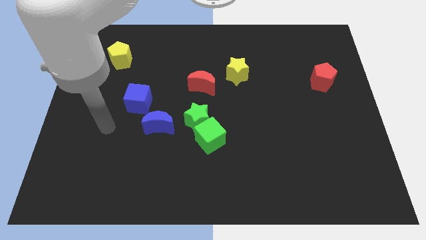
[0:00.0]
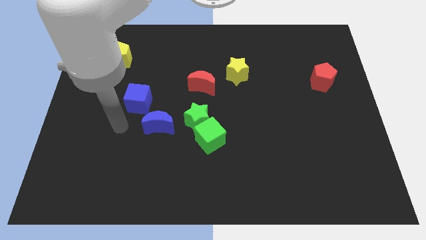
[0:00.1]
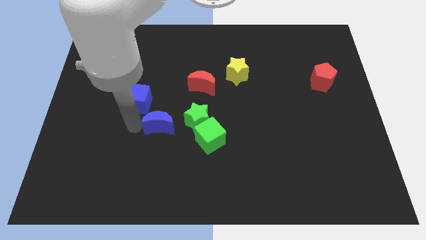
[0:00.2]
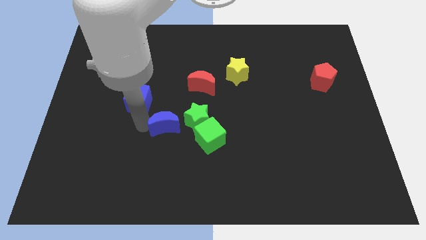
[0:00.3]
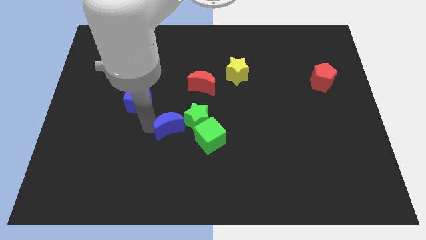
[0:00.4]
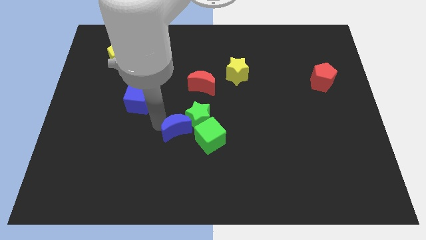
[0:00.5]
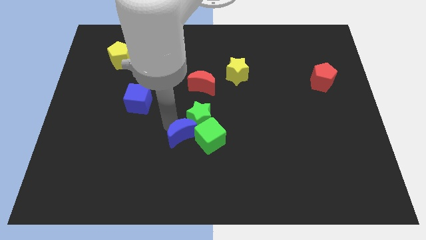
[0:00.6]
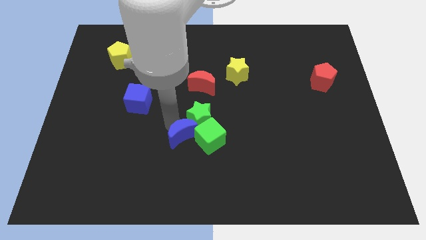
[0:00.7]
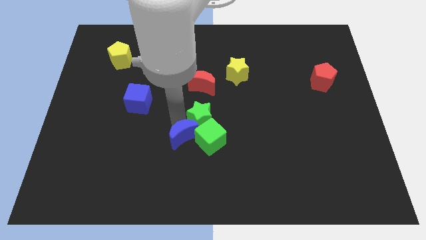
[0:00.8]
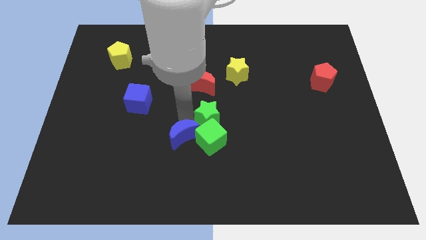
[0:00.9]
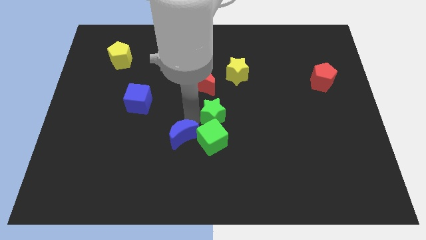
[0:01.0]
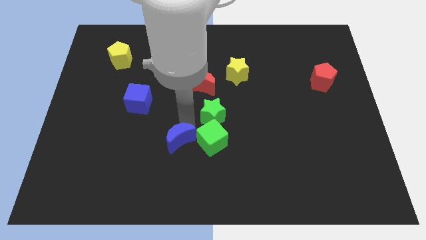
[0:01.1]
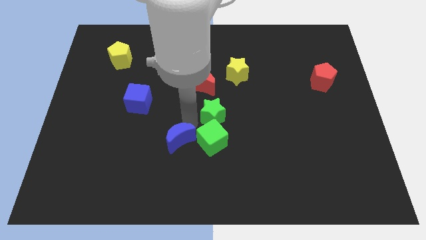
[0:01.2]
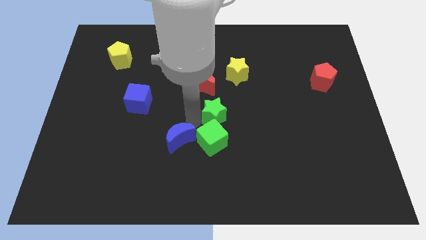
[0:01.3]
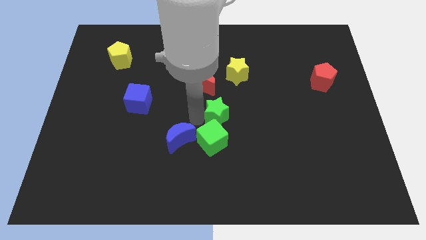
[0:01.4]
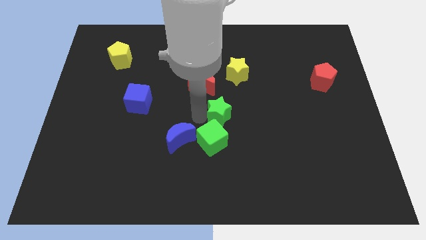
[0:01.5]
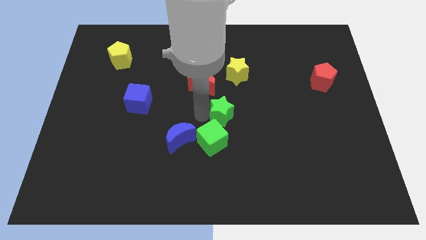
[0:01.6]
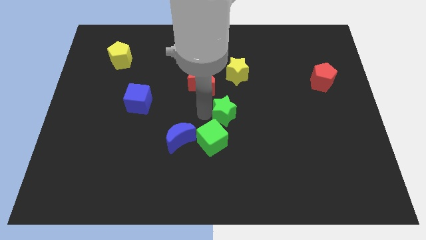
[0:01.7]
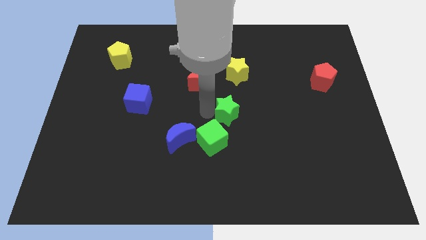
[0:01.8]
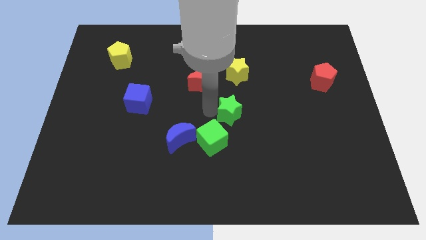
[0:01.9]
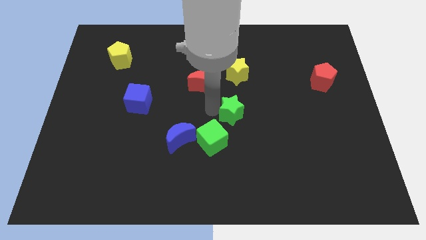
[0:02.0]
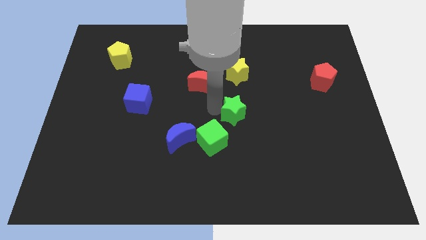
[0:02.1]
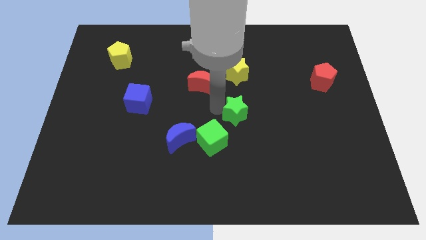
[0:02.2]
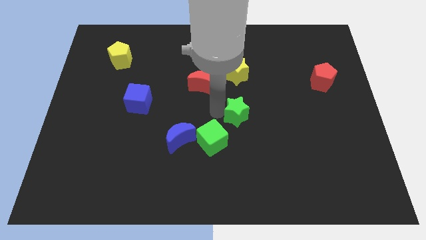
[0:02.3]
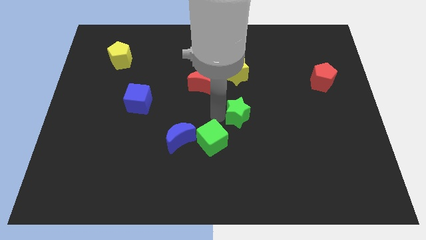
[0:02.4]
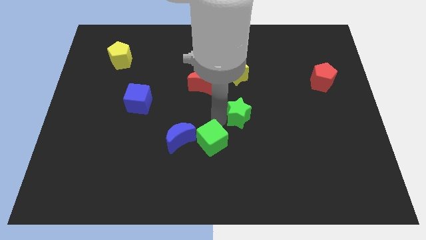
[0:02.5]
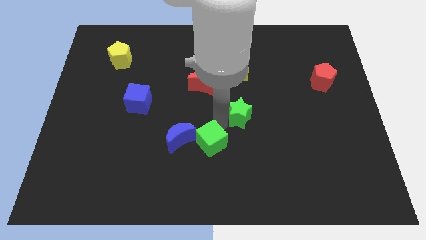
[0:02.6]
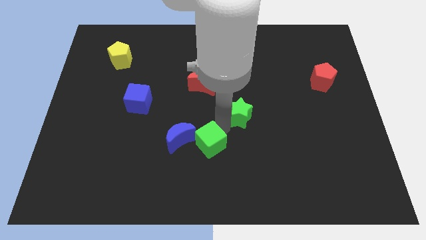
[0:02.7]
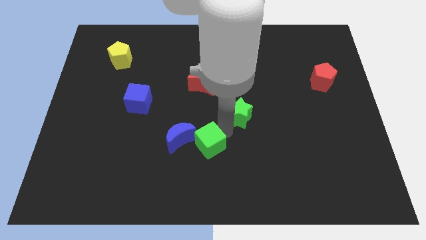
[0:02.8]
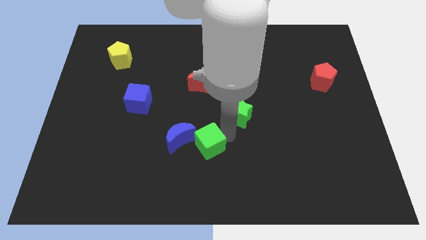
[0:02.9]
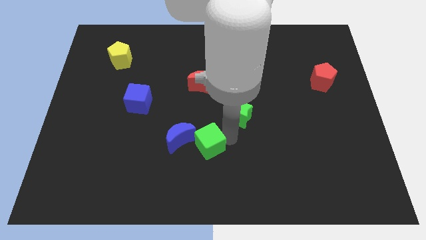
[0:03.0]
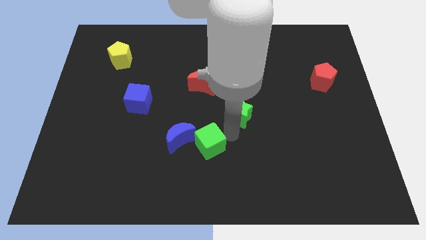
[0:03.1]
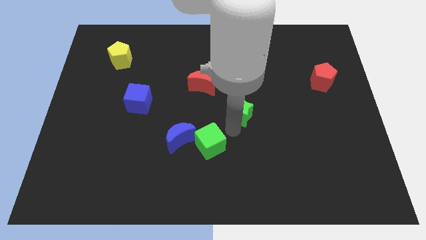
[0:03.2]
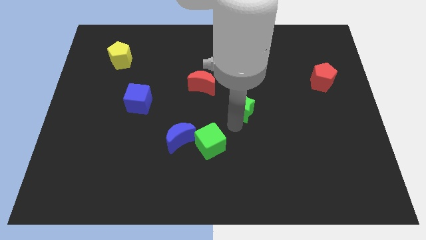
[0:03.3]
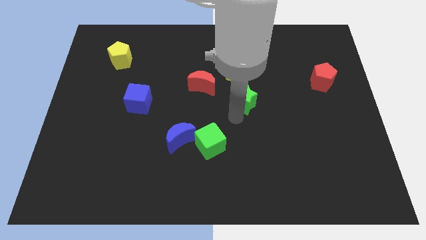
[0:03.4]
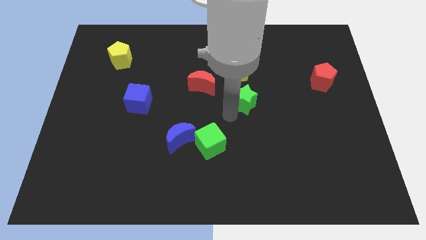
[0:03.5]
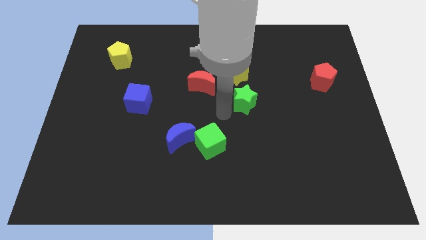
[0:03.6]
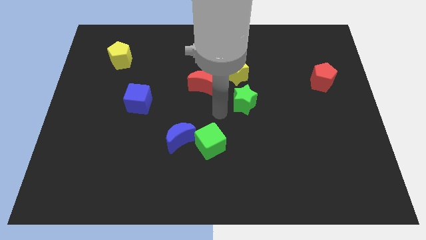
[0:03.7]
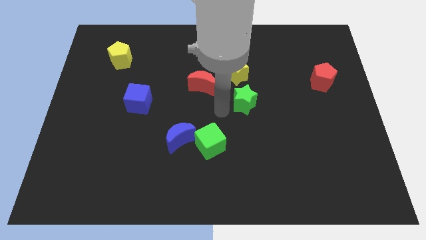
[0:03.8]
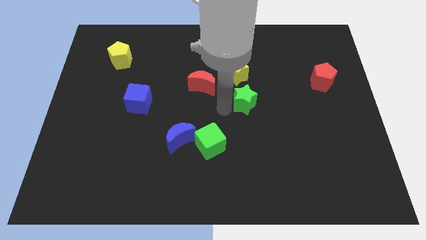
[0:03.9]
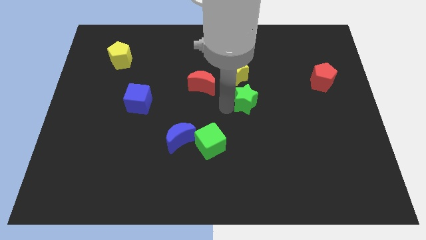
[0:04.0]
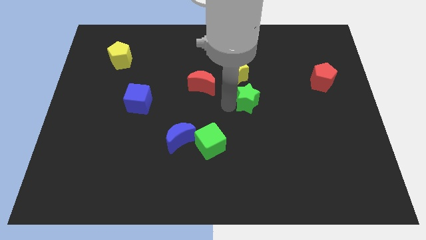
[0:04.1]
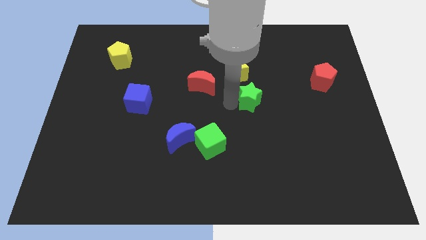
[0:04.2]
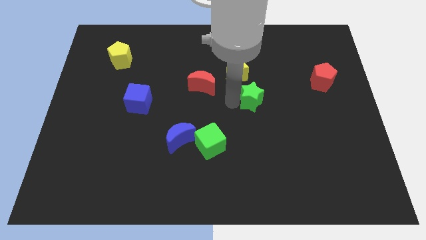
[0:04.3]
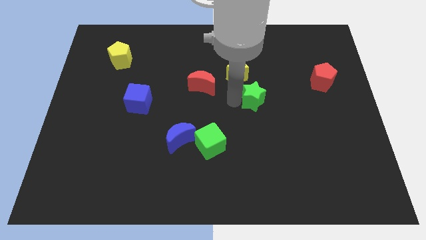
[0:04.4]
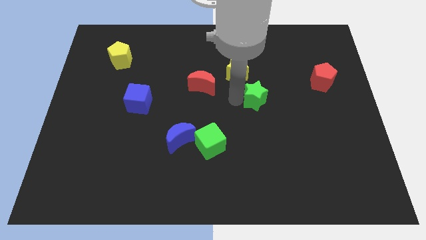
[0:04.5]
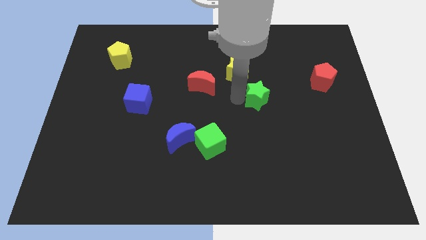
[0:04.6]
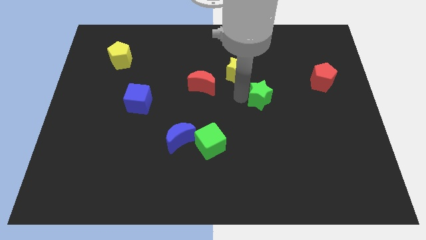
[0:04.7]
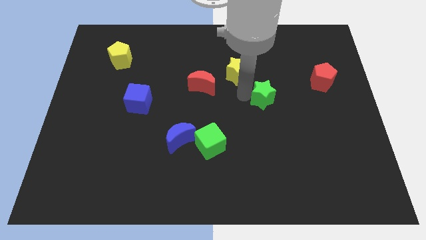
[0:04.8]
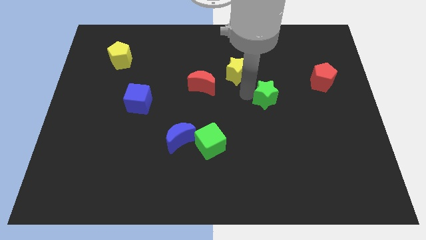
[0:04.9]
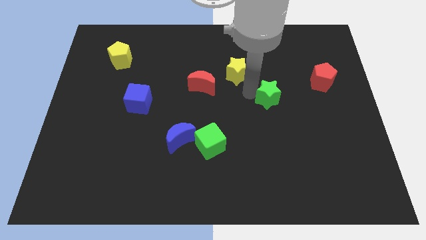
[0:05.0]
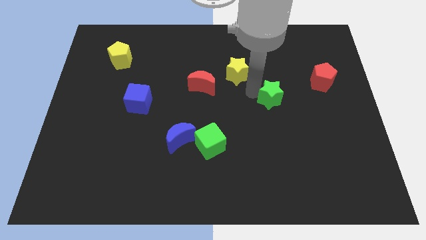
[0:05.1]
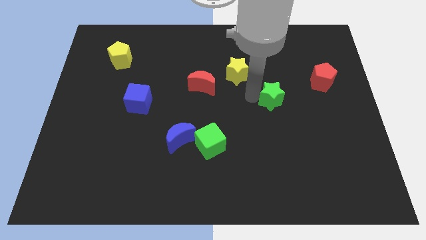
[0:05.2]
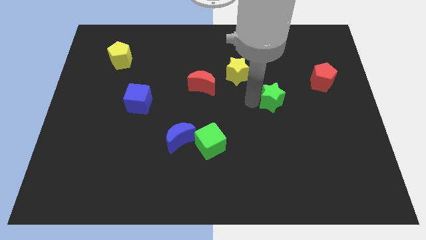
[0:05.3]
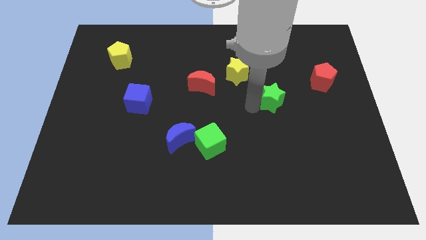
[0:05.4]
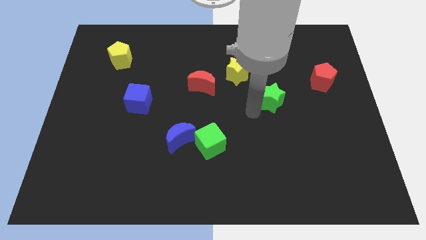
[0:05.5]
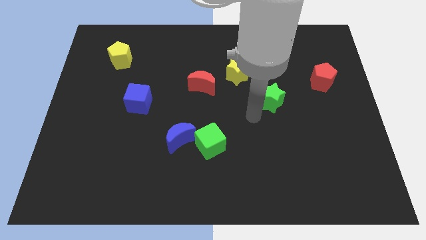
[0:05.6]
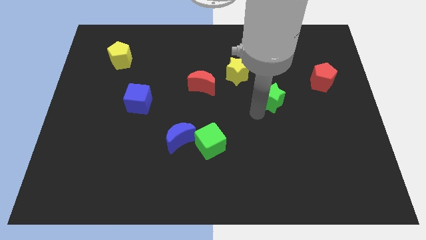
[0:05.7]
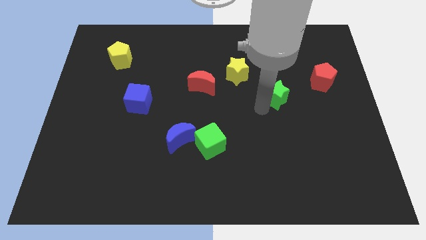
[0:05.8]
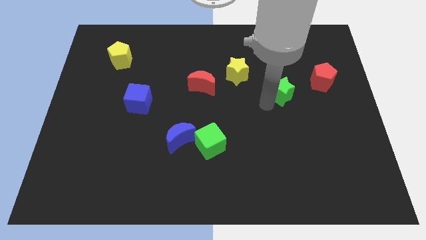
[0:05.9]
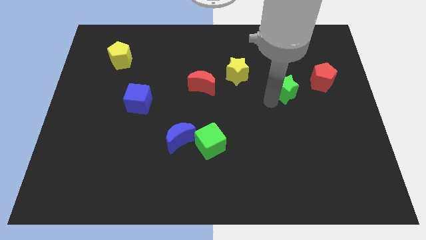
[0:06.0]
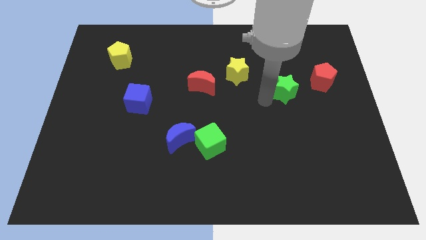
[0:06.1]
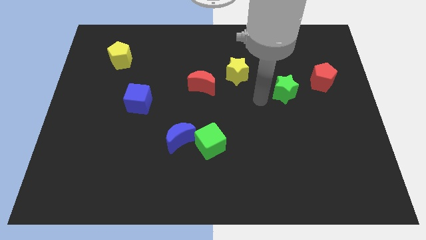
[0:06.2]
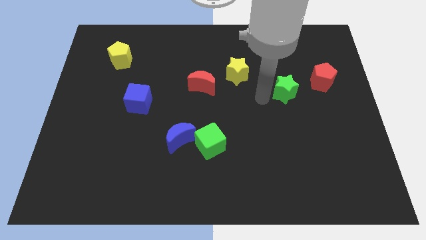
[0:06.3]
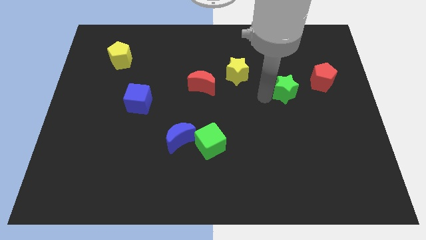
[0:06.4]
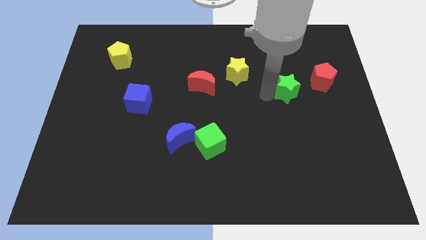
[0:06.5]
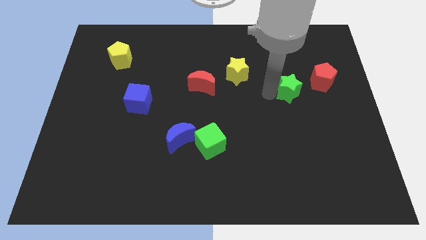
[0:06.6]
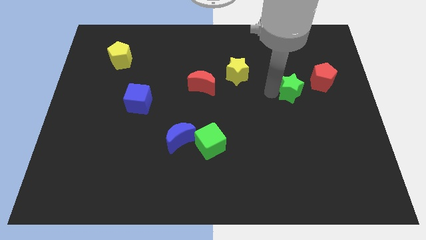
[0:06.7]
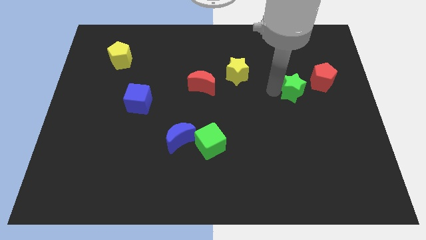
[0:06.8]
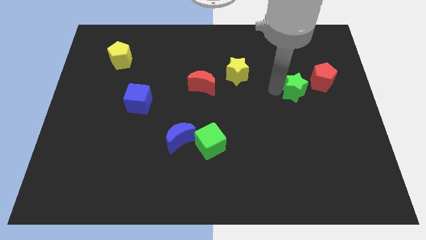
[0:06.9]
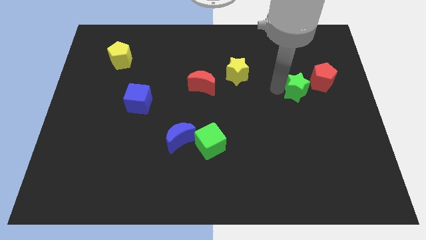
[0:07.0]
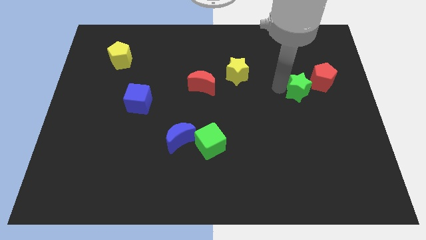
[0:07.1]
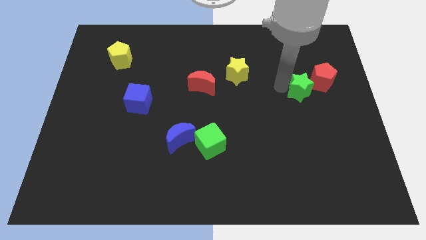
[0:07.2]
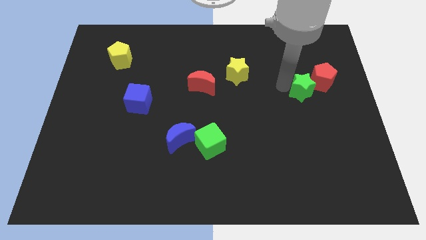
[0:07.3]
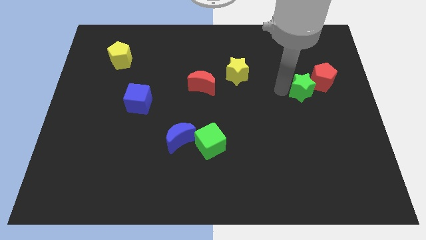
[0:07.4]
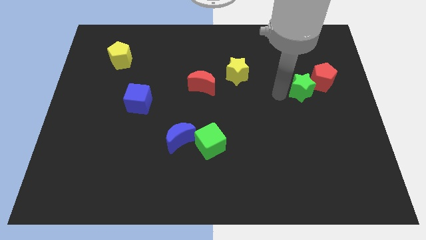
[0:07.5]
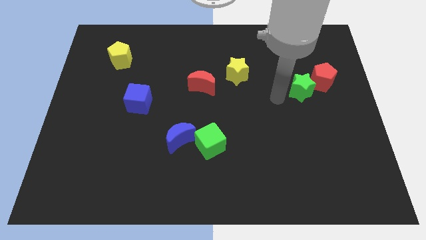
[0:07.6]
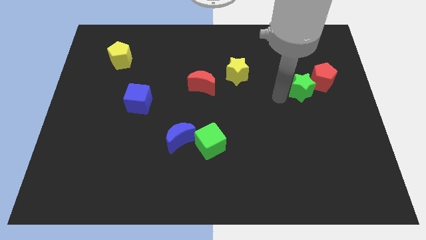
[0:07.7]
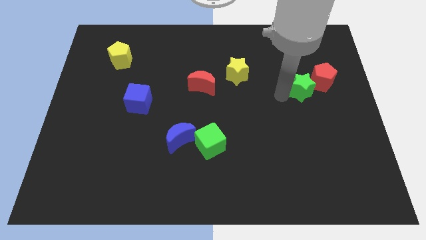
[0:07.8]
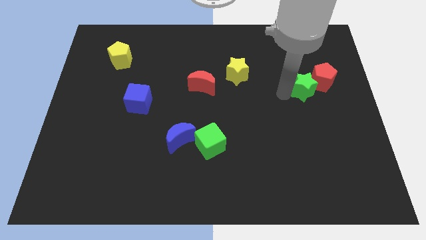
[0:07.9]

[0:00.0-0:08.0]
slide the green star next to the red pentagon
